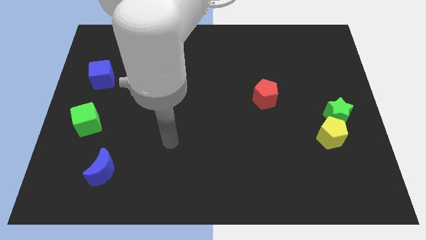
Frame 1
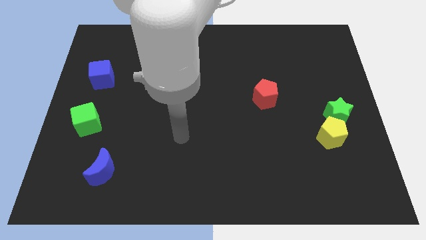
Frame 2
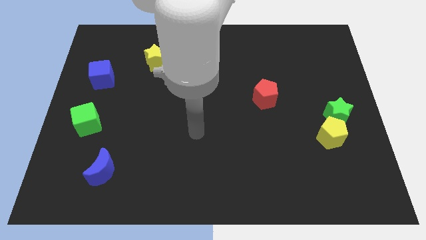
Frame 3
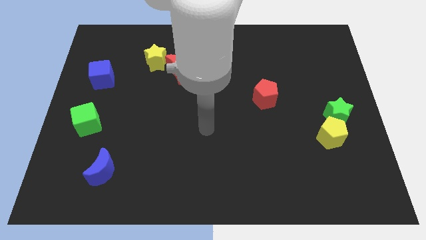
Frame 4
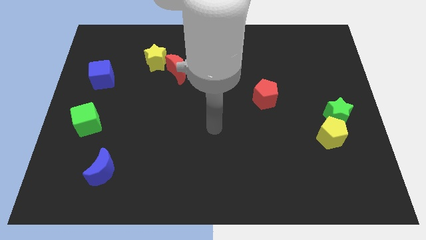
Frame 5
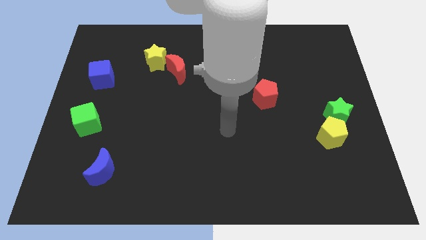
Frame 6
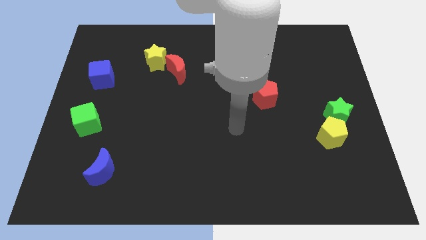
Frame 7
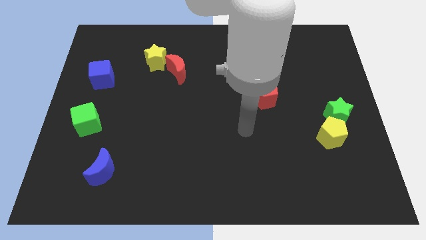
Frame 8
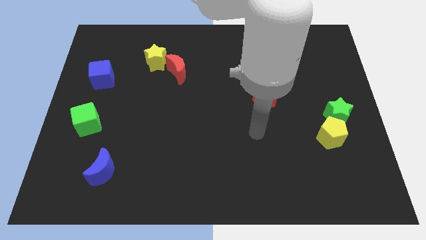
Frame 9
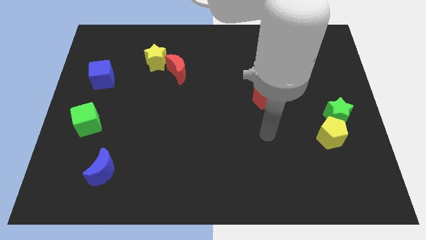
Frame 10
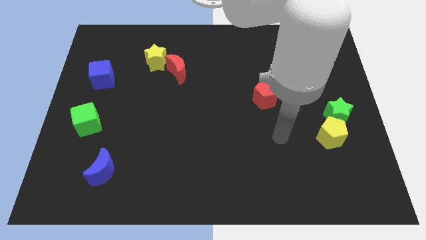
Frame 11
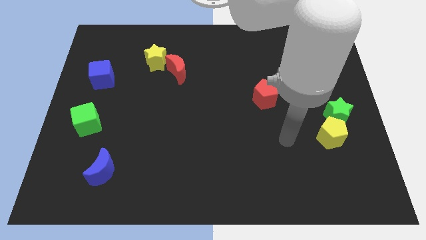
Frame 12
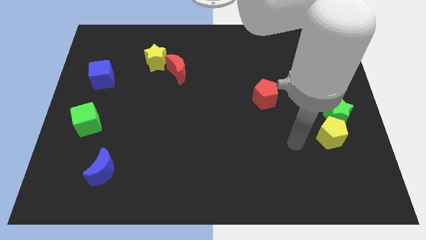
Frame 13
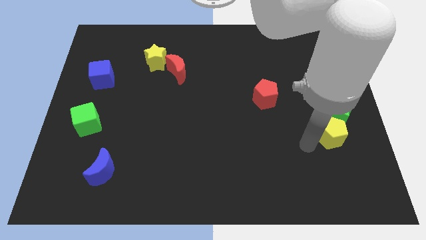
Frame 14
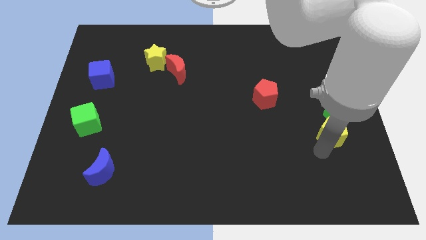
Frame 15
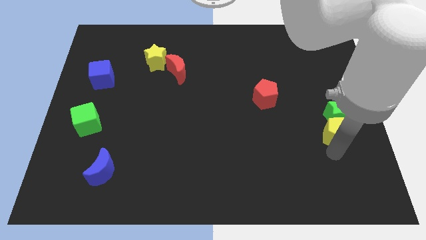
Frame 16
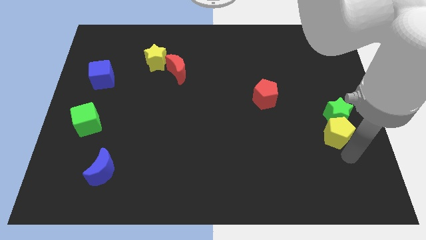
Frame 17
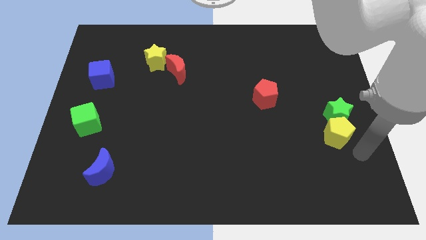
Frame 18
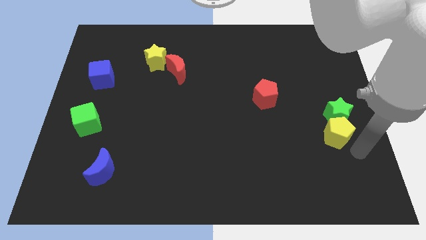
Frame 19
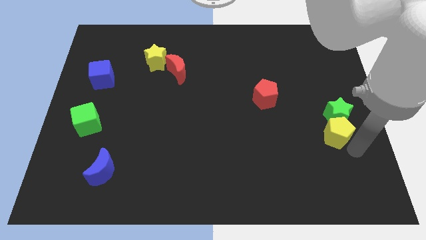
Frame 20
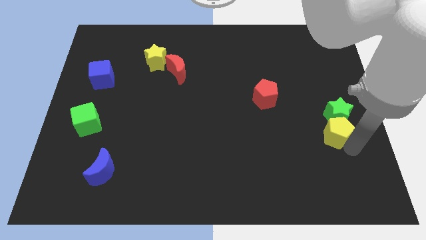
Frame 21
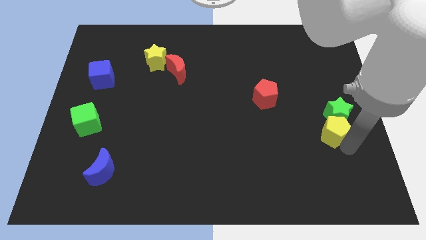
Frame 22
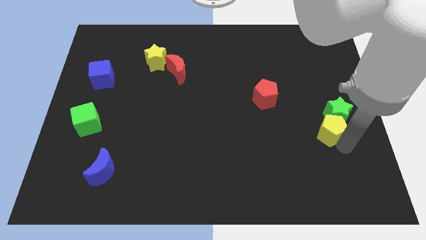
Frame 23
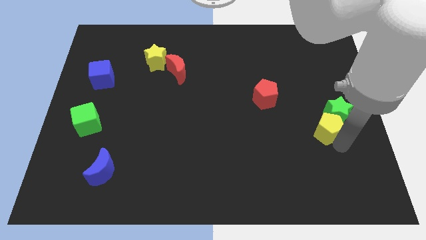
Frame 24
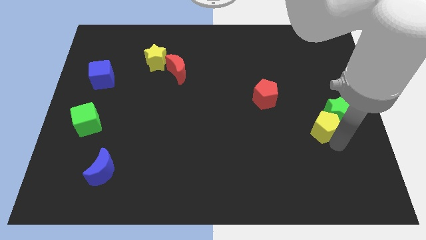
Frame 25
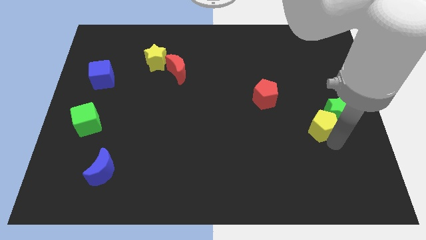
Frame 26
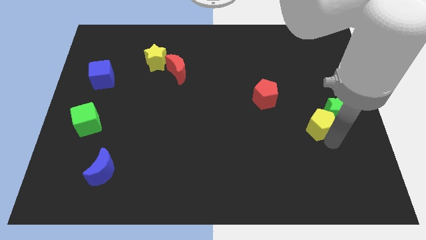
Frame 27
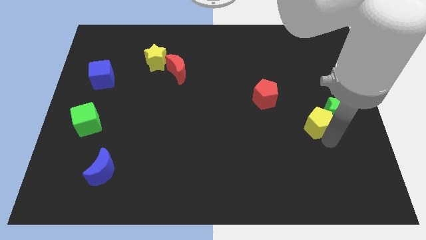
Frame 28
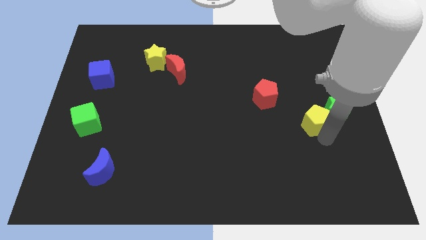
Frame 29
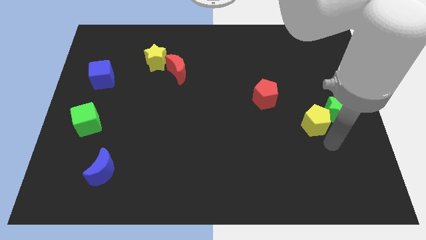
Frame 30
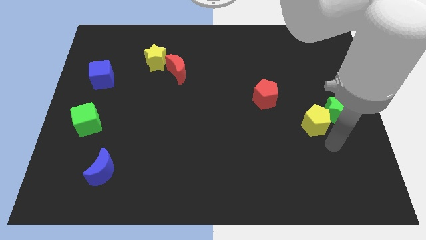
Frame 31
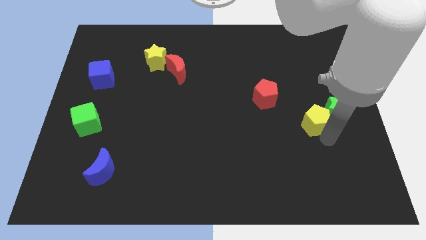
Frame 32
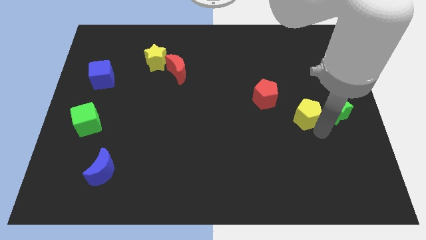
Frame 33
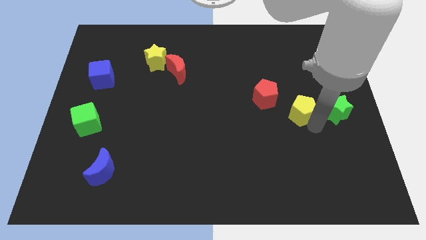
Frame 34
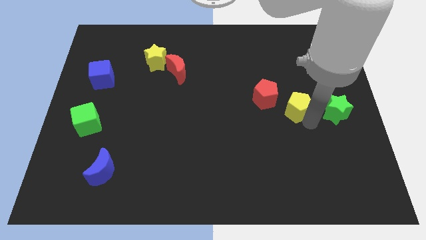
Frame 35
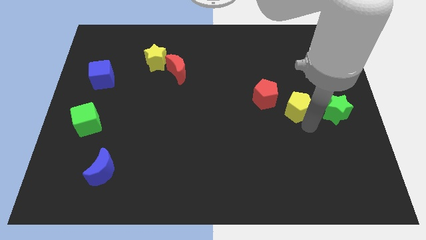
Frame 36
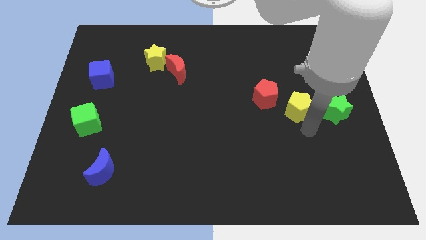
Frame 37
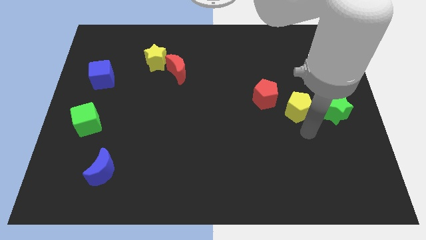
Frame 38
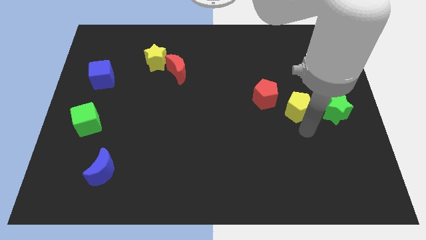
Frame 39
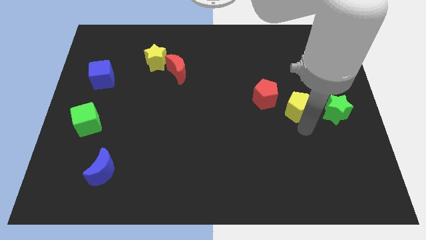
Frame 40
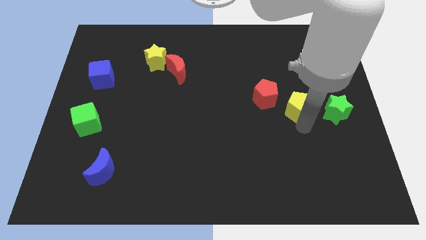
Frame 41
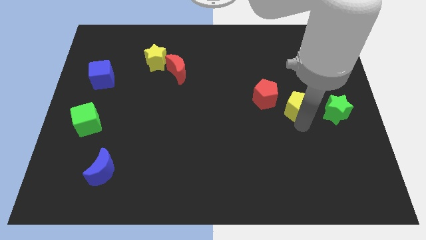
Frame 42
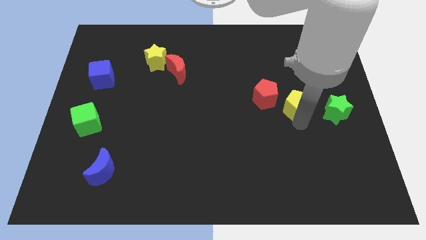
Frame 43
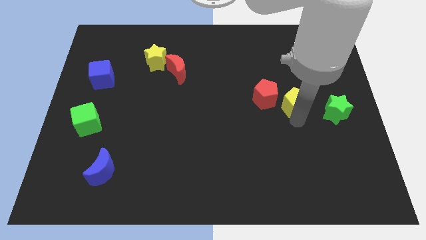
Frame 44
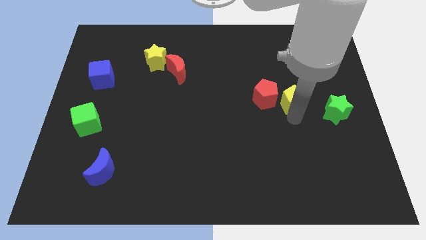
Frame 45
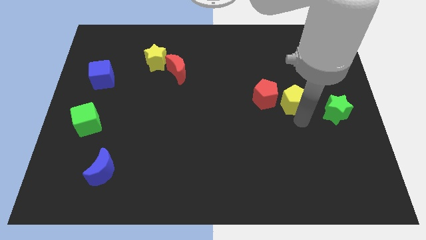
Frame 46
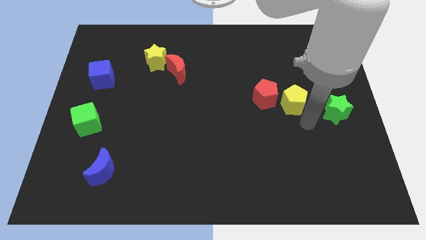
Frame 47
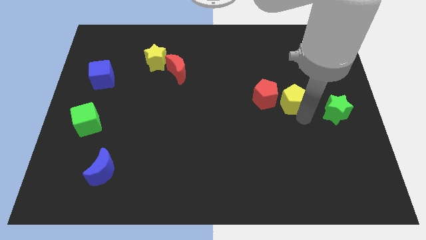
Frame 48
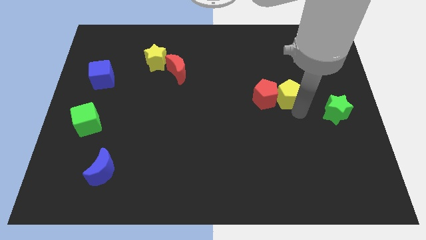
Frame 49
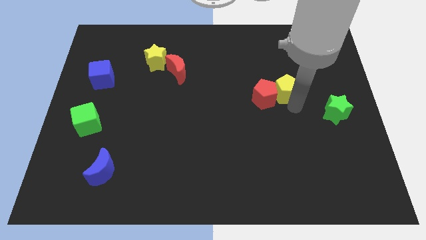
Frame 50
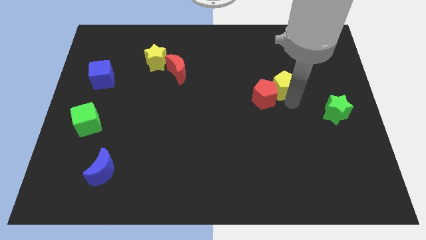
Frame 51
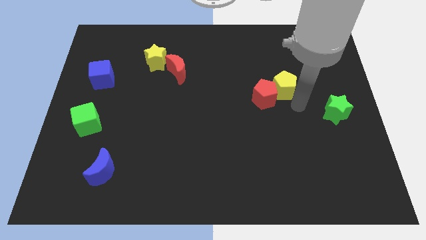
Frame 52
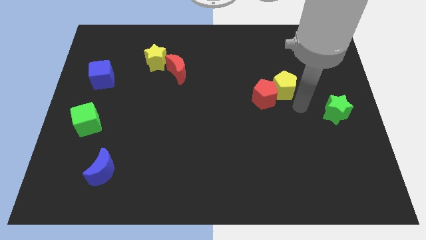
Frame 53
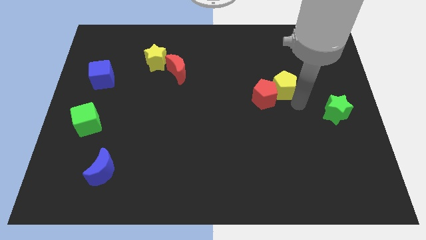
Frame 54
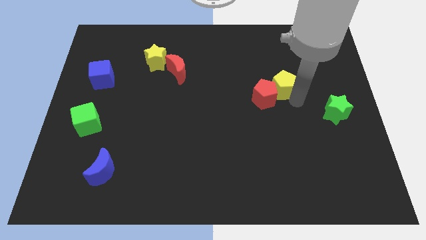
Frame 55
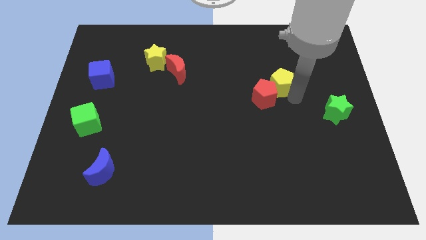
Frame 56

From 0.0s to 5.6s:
slide the yellow pentagon to the top of the red pentagon

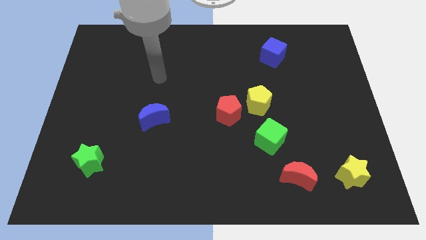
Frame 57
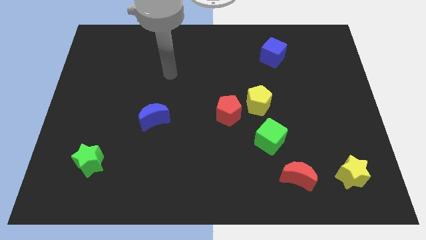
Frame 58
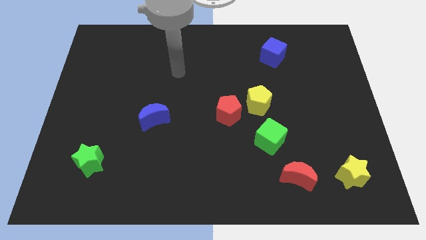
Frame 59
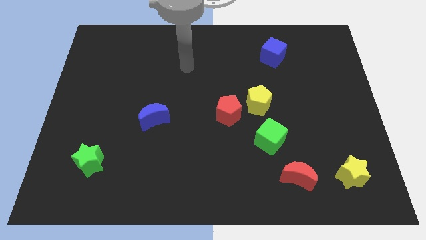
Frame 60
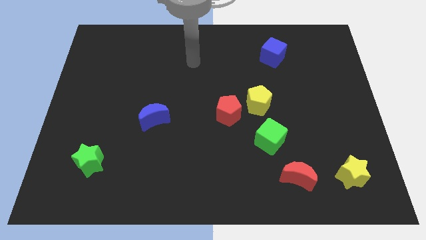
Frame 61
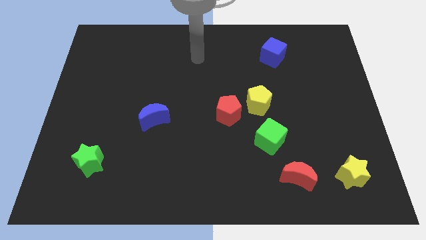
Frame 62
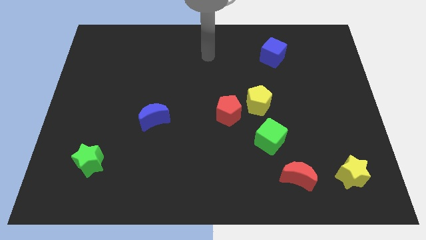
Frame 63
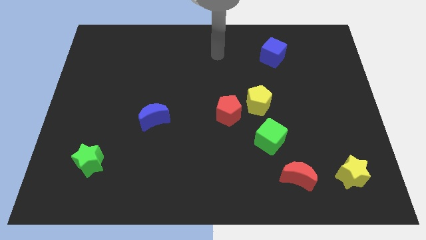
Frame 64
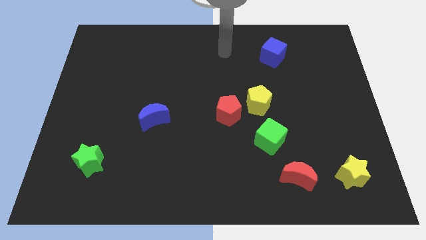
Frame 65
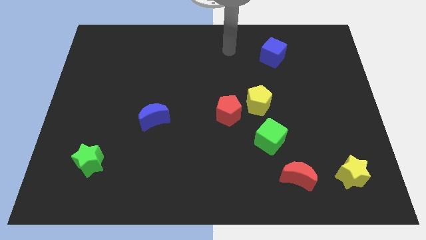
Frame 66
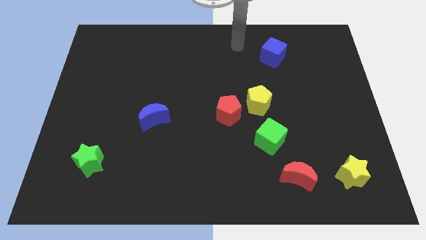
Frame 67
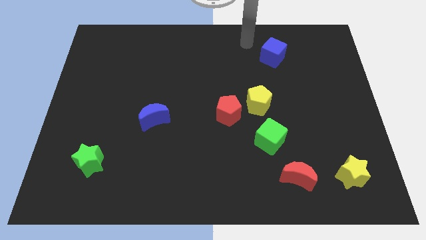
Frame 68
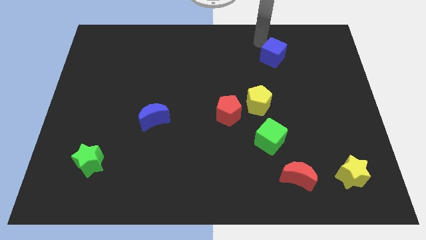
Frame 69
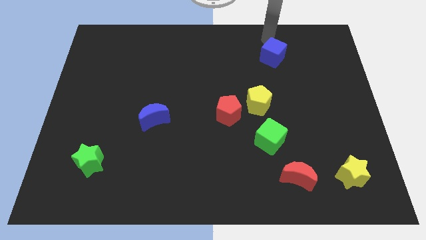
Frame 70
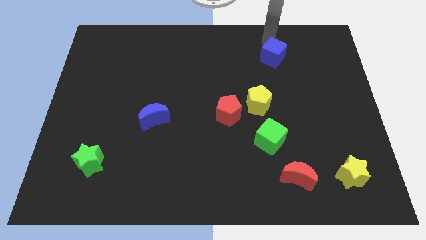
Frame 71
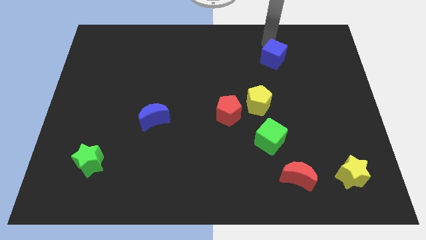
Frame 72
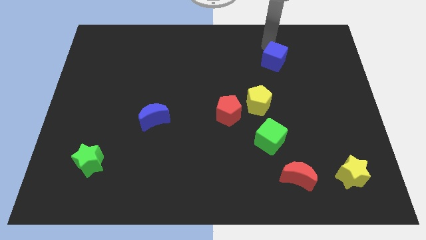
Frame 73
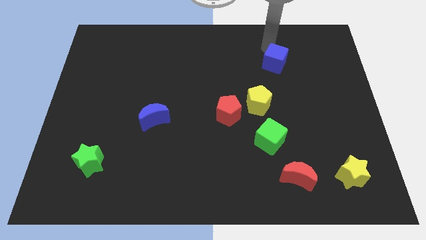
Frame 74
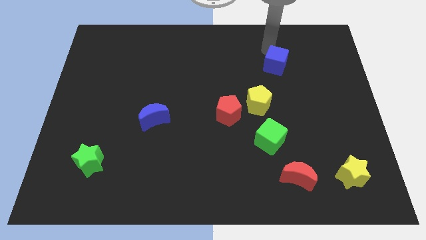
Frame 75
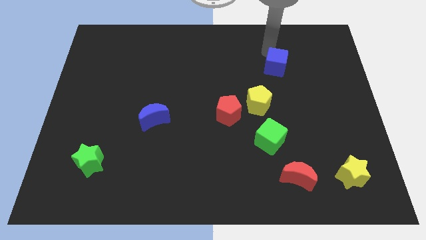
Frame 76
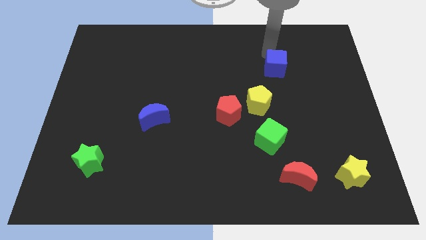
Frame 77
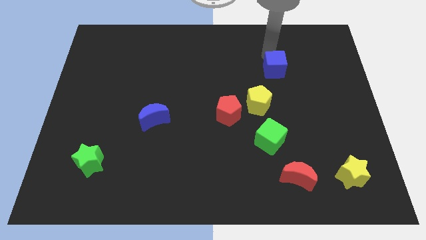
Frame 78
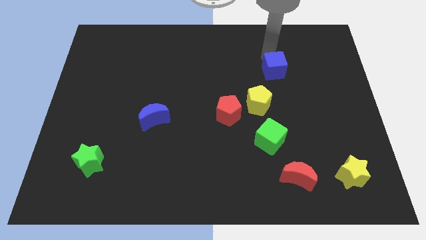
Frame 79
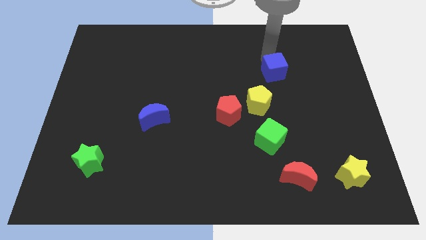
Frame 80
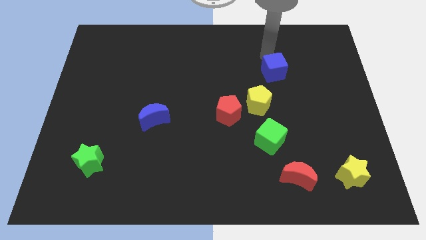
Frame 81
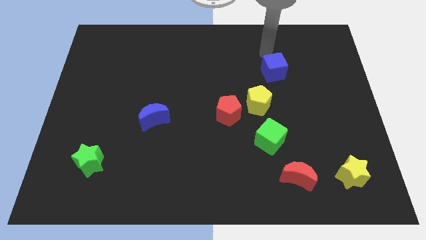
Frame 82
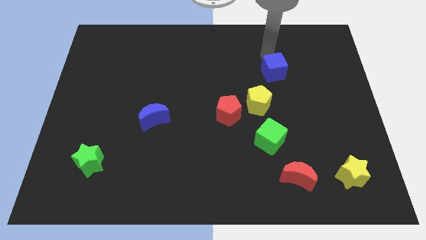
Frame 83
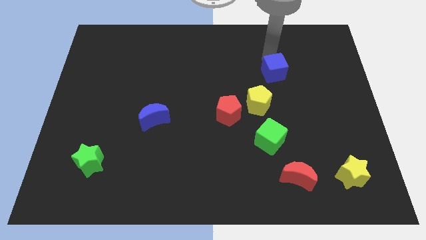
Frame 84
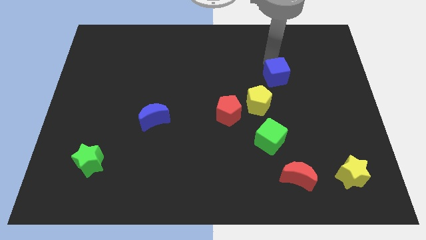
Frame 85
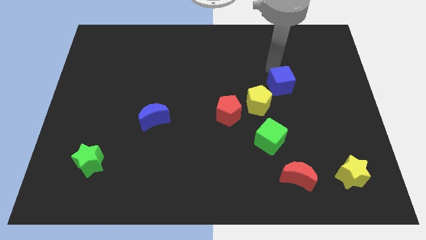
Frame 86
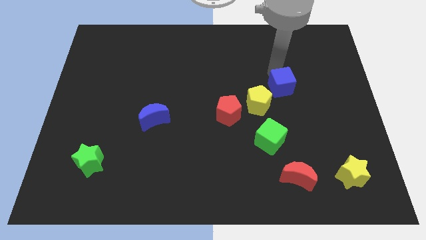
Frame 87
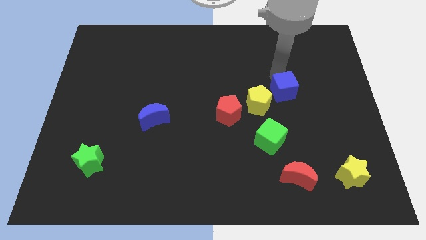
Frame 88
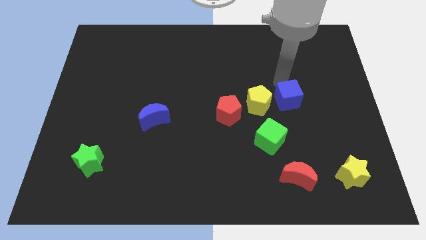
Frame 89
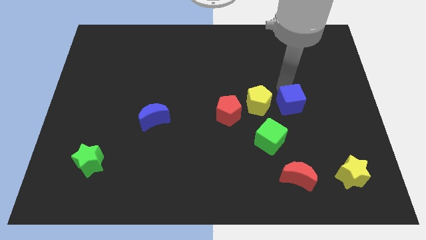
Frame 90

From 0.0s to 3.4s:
slide the blue cube to the top right of the green cube
